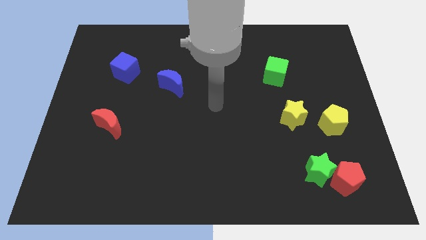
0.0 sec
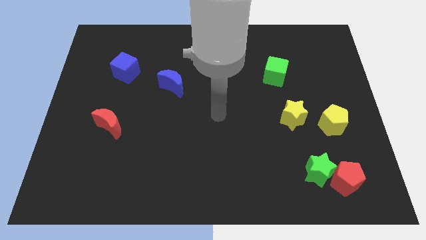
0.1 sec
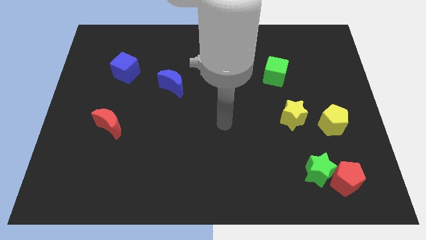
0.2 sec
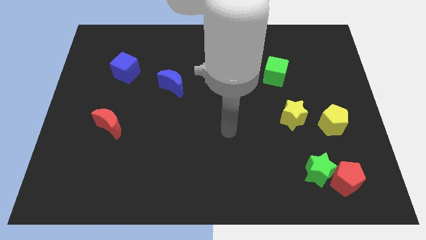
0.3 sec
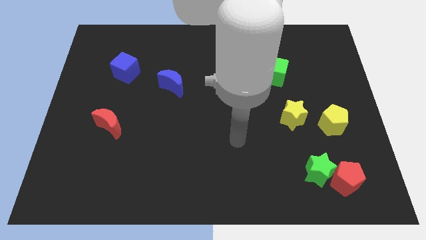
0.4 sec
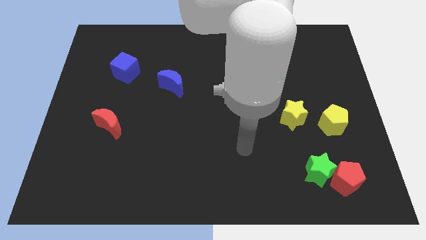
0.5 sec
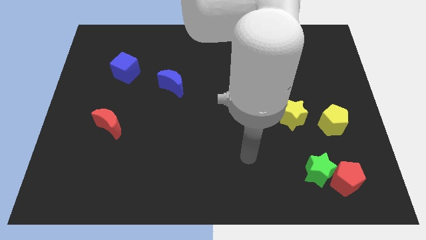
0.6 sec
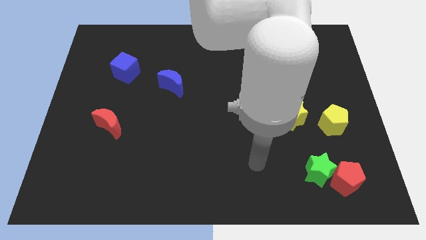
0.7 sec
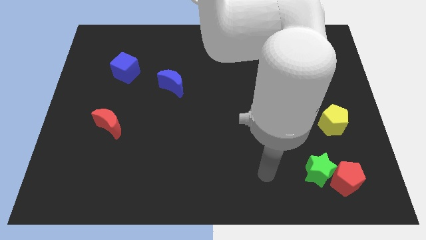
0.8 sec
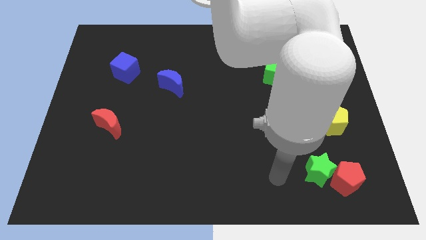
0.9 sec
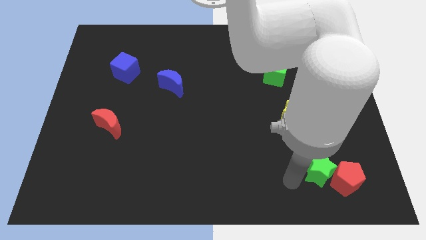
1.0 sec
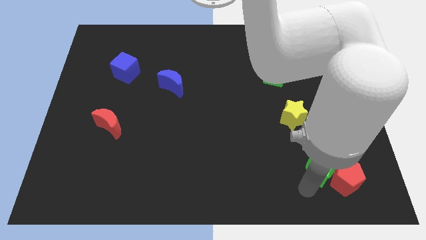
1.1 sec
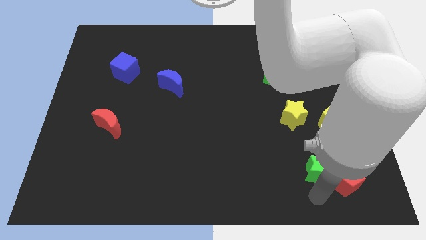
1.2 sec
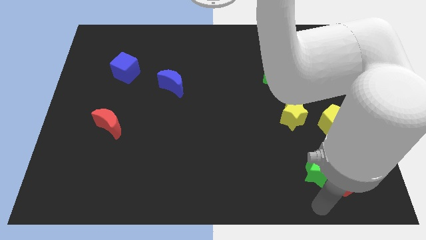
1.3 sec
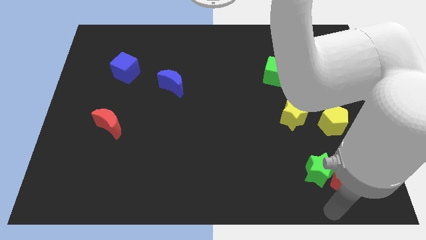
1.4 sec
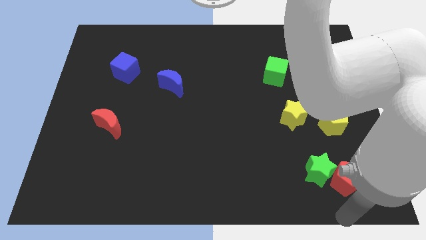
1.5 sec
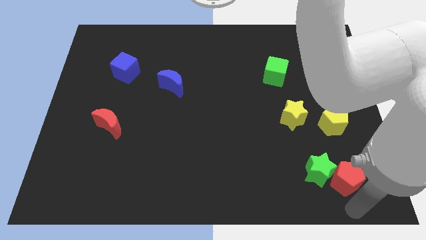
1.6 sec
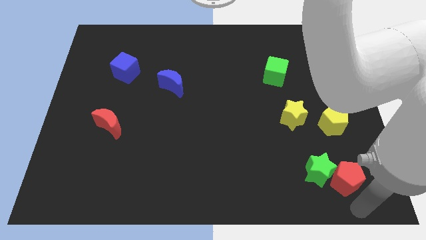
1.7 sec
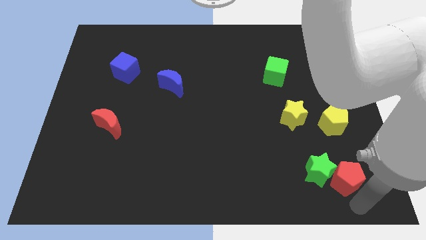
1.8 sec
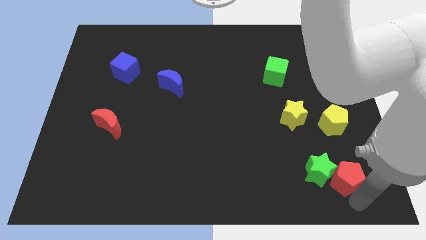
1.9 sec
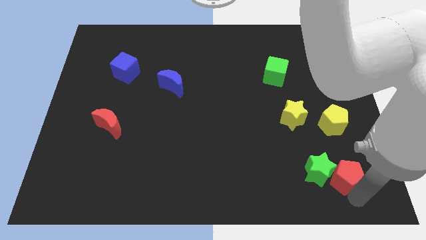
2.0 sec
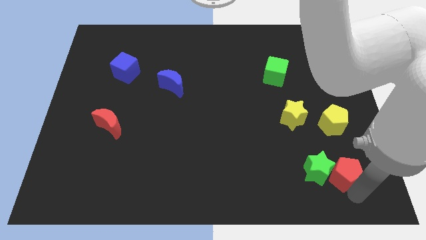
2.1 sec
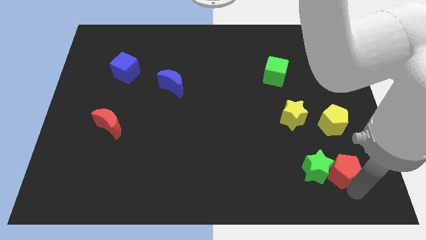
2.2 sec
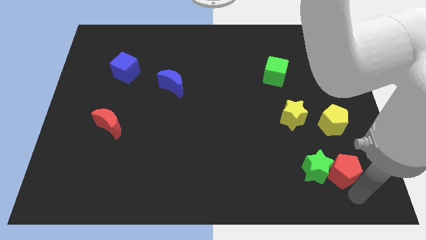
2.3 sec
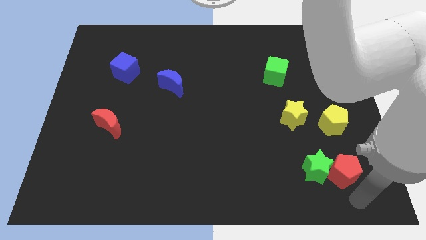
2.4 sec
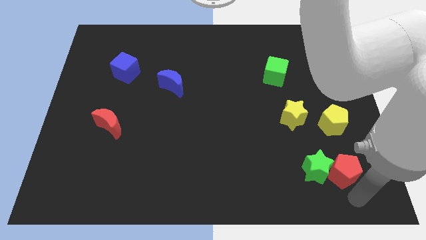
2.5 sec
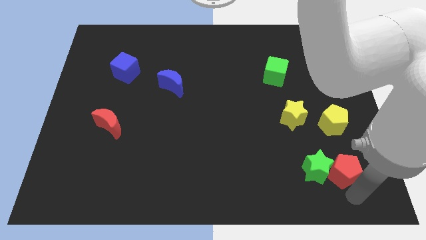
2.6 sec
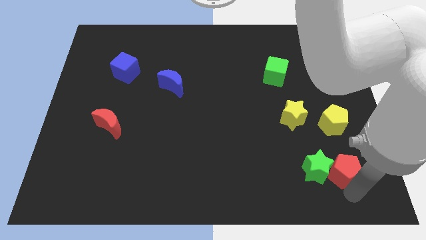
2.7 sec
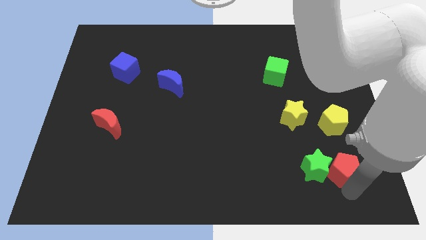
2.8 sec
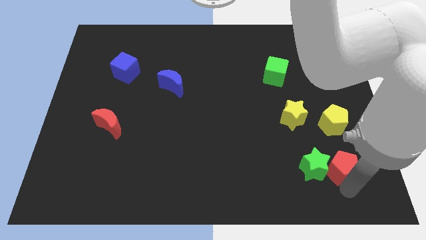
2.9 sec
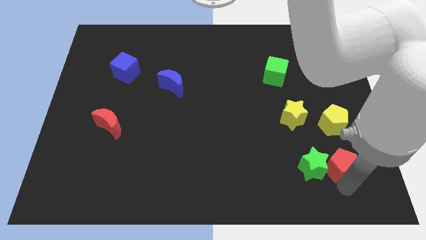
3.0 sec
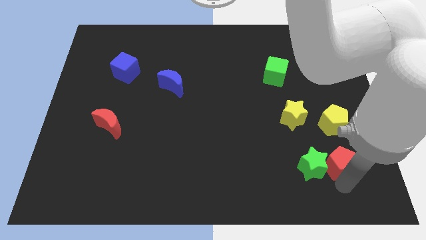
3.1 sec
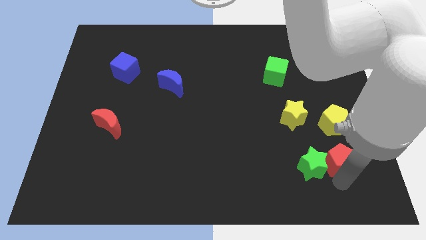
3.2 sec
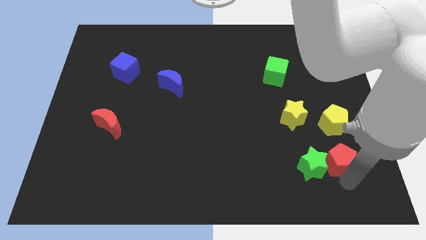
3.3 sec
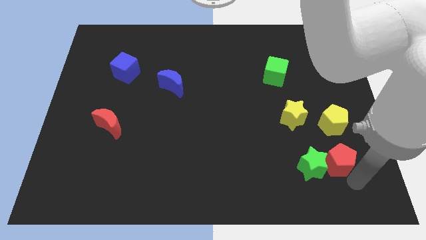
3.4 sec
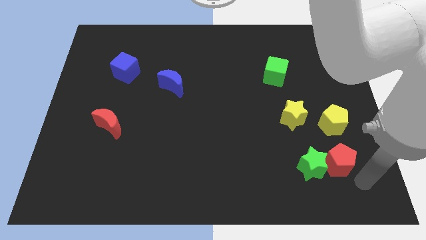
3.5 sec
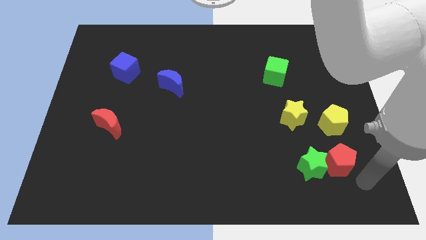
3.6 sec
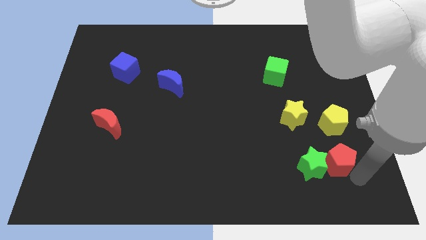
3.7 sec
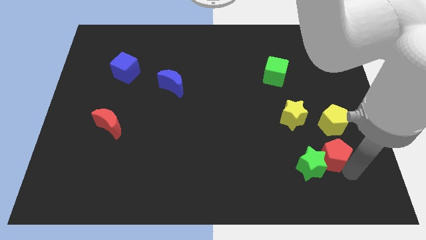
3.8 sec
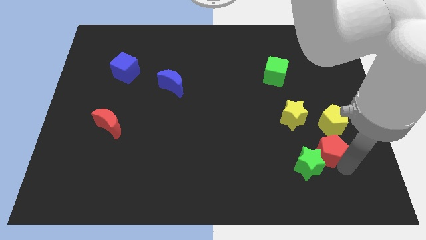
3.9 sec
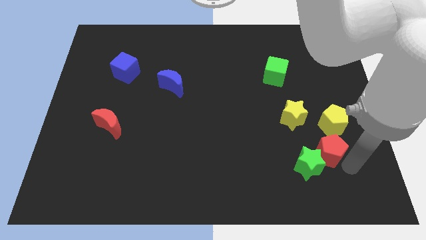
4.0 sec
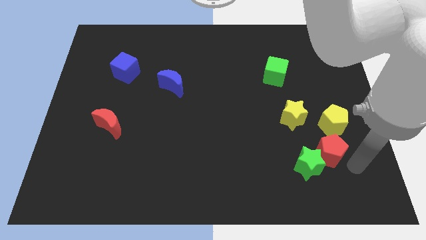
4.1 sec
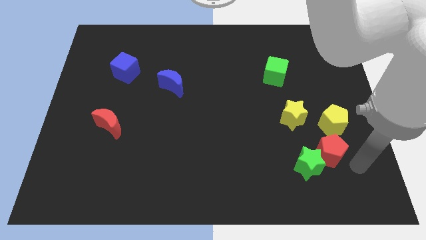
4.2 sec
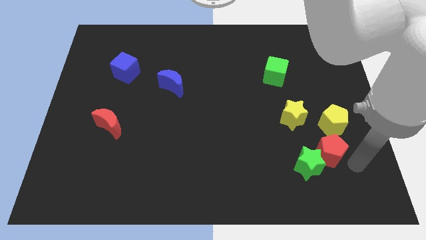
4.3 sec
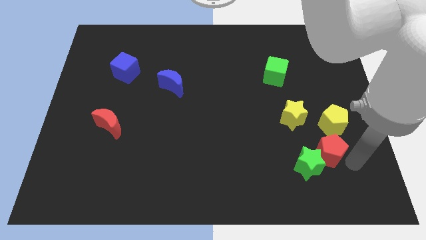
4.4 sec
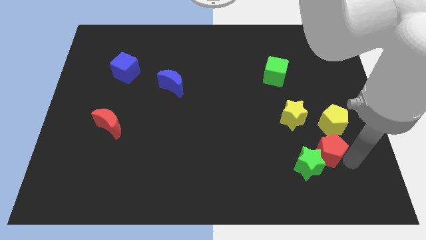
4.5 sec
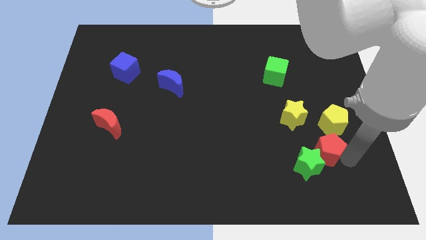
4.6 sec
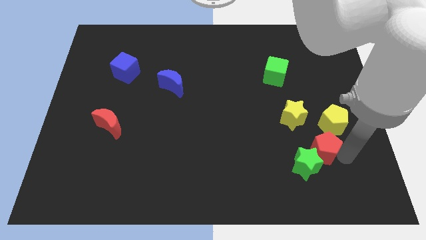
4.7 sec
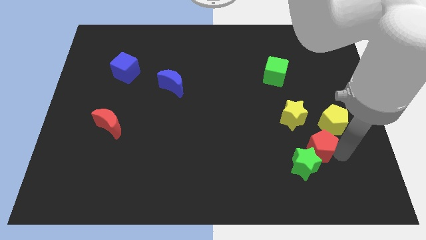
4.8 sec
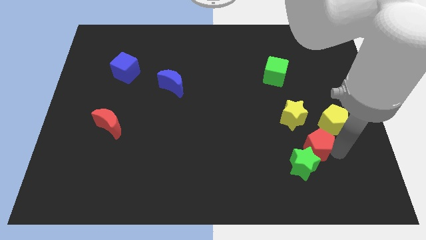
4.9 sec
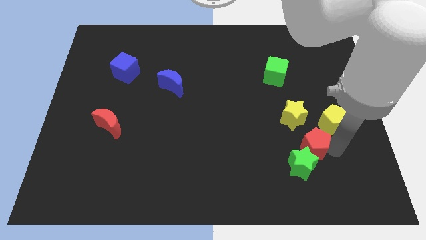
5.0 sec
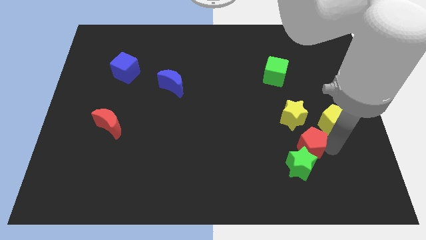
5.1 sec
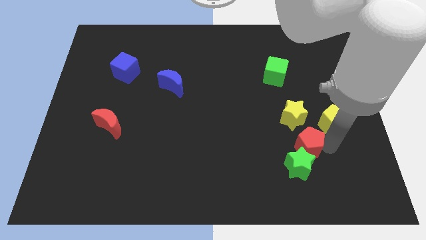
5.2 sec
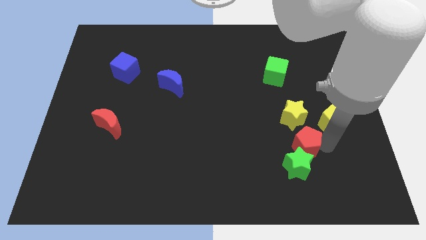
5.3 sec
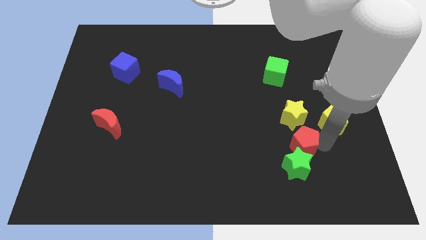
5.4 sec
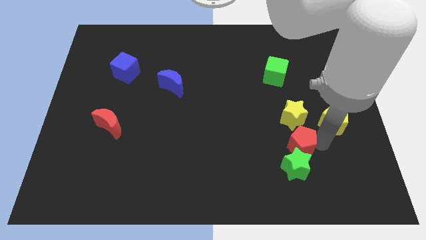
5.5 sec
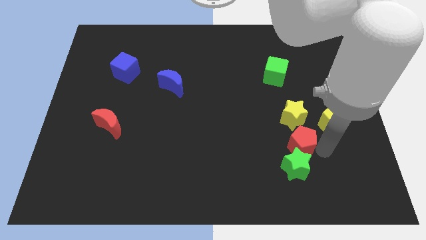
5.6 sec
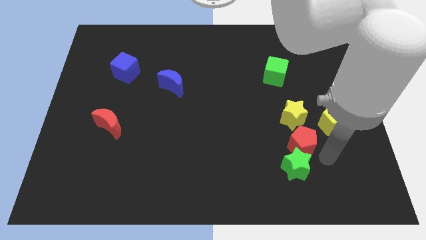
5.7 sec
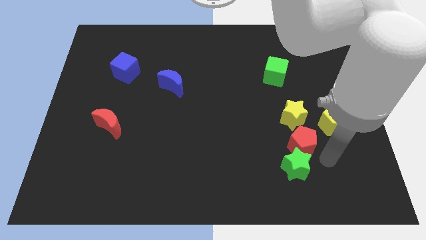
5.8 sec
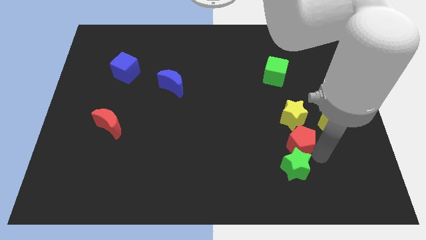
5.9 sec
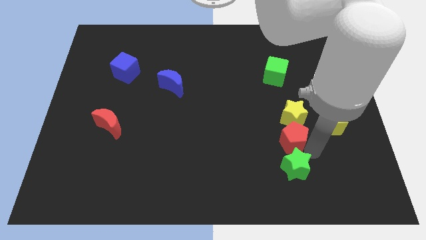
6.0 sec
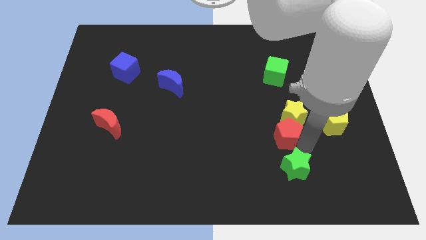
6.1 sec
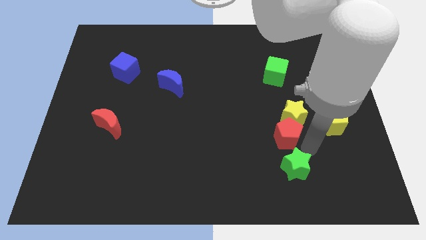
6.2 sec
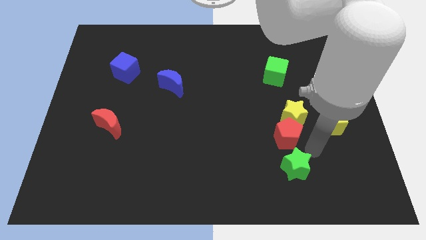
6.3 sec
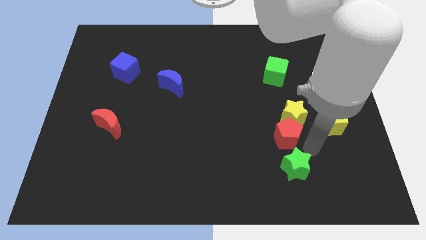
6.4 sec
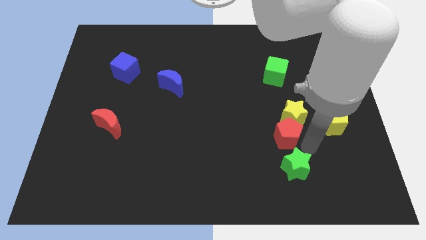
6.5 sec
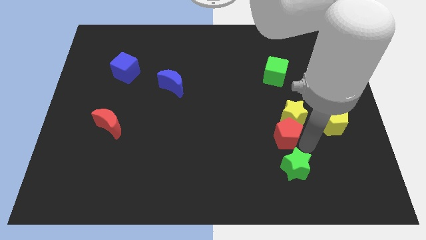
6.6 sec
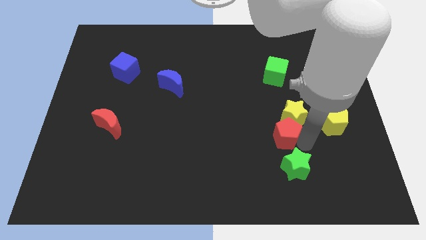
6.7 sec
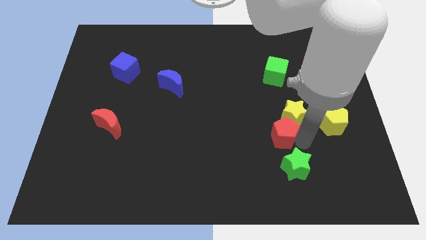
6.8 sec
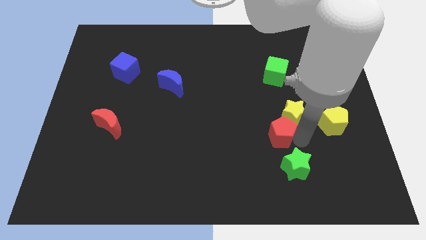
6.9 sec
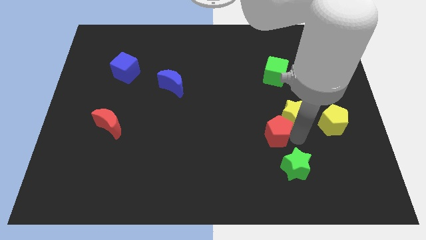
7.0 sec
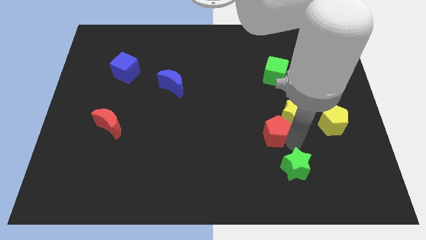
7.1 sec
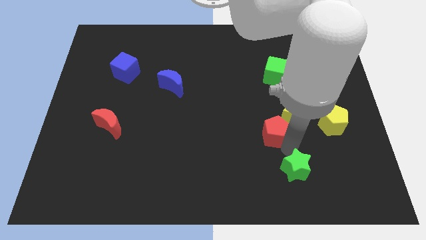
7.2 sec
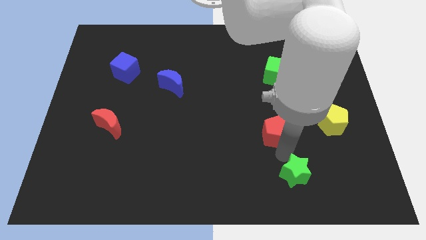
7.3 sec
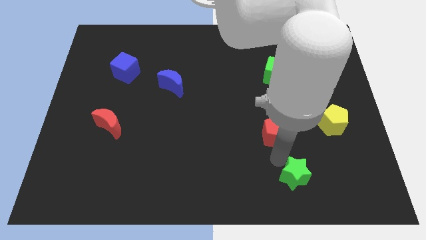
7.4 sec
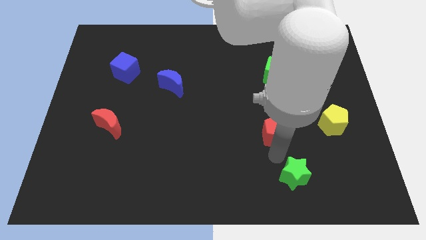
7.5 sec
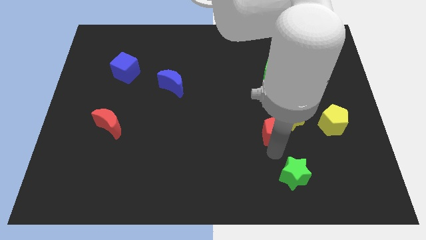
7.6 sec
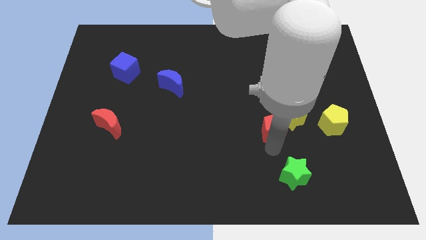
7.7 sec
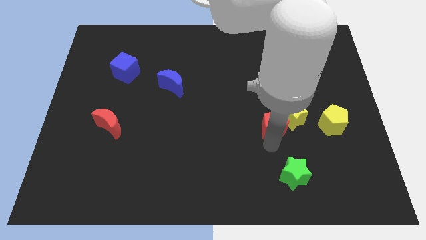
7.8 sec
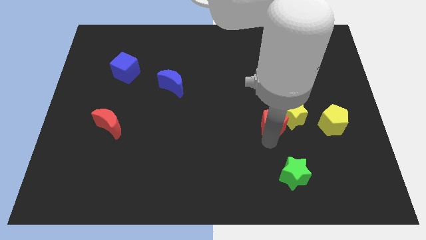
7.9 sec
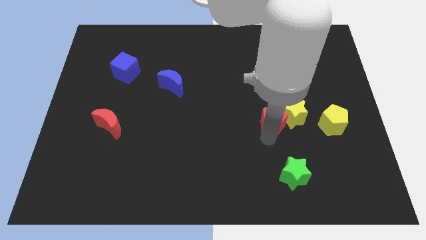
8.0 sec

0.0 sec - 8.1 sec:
slide the red pentagon to the top left of the yellow star
